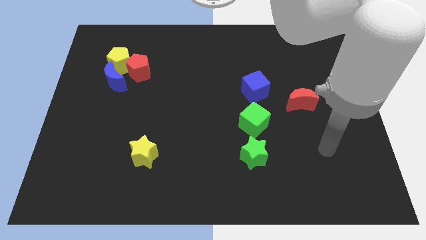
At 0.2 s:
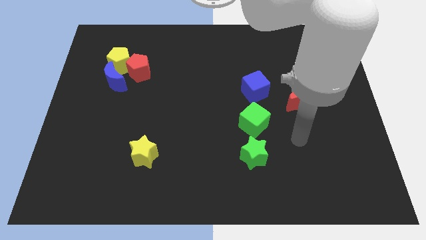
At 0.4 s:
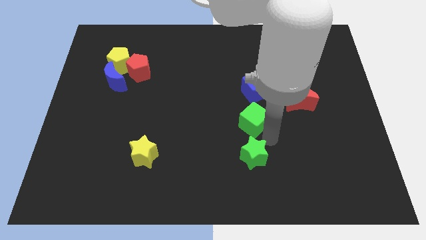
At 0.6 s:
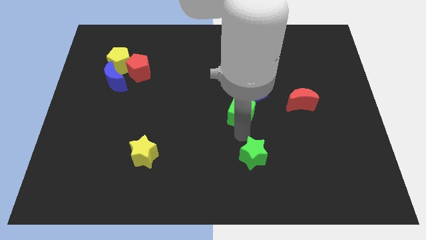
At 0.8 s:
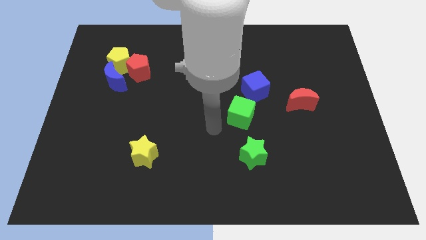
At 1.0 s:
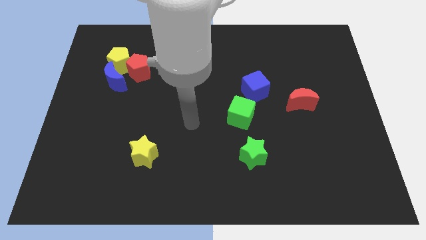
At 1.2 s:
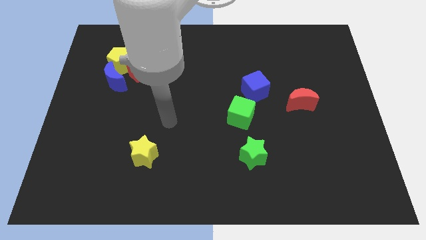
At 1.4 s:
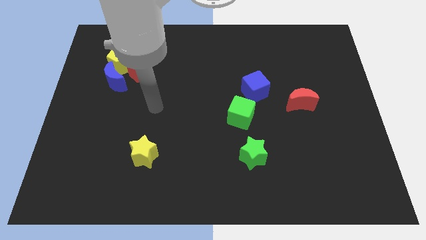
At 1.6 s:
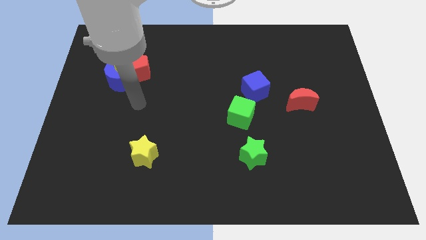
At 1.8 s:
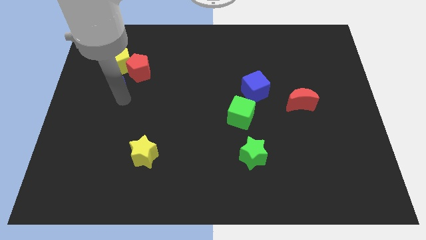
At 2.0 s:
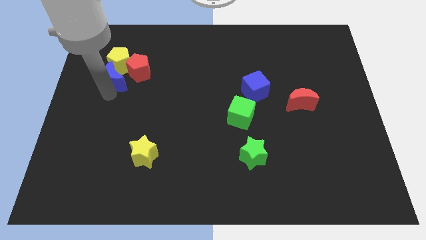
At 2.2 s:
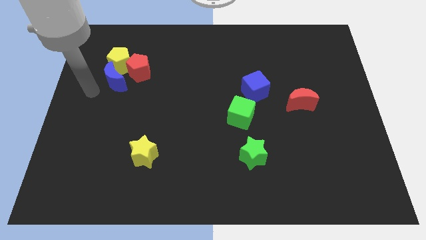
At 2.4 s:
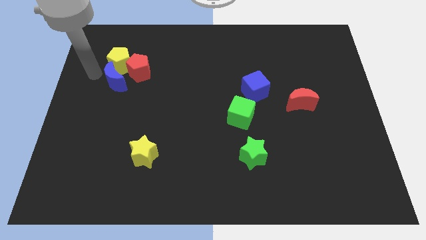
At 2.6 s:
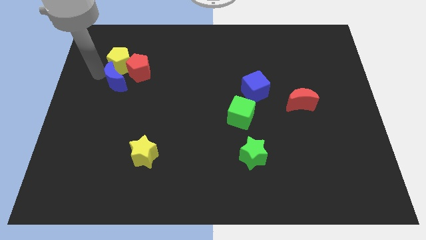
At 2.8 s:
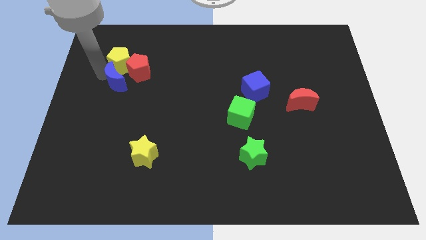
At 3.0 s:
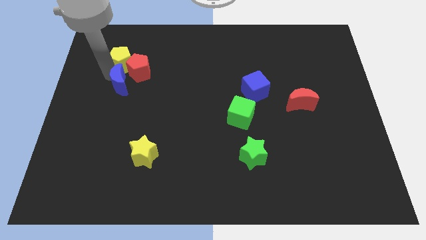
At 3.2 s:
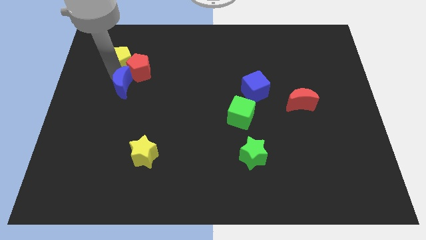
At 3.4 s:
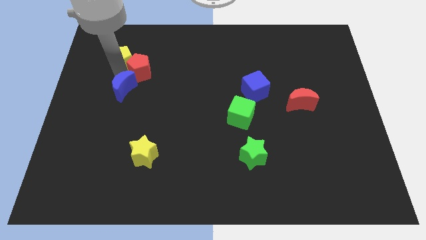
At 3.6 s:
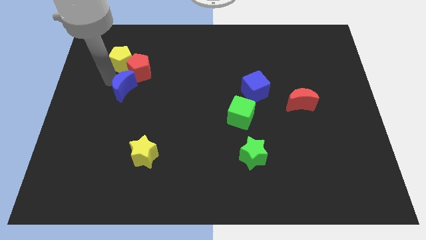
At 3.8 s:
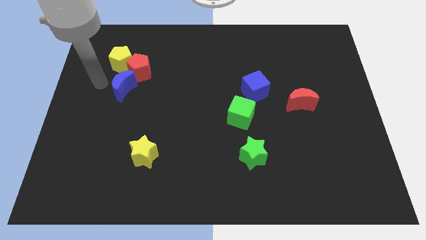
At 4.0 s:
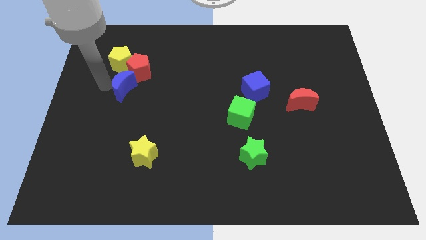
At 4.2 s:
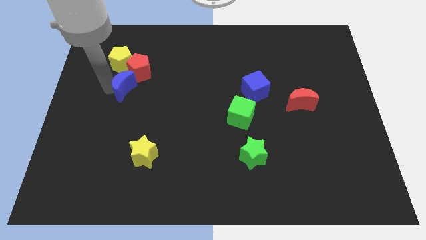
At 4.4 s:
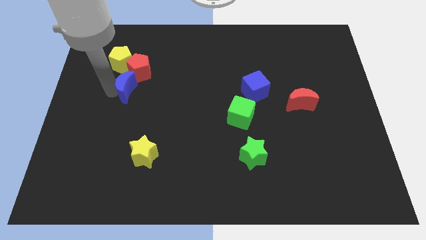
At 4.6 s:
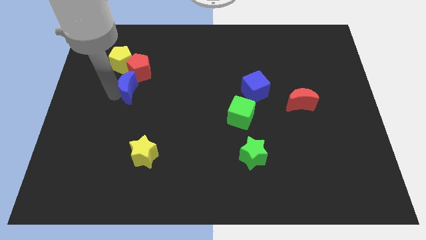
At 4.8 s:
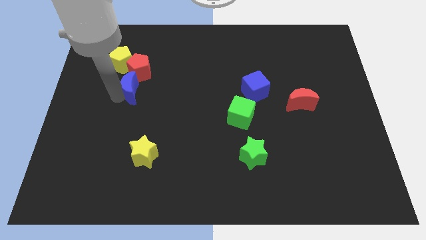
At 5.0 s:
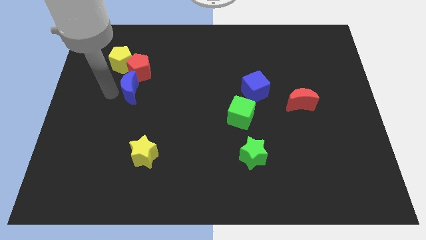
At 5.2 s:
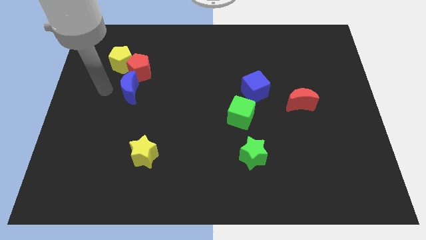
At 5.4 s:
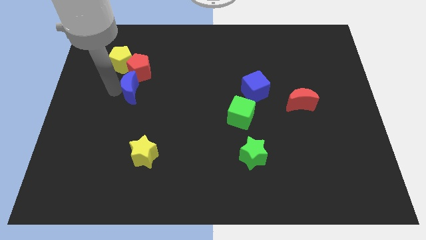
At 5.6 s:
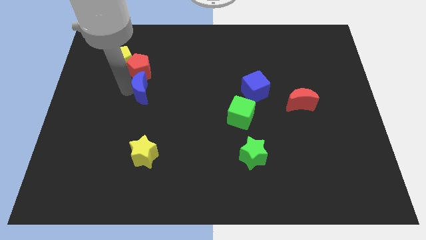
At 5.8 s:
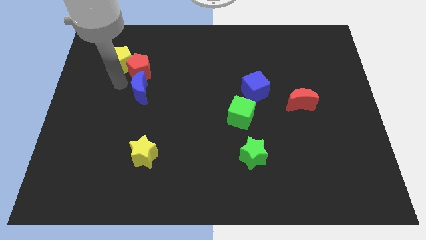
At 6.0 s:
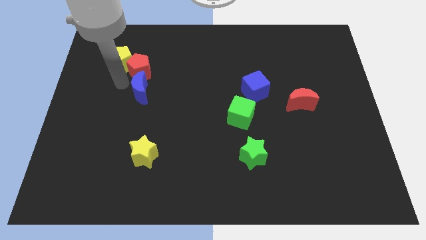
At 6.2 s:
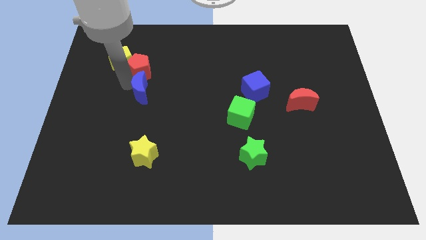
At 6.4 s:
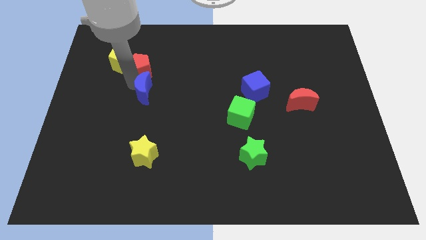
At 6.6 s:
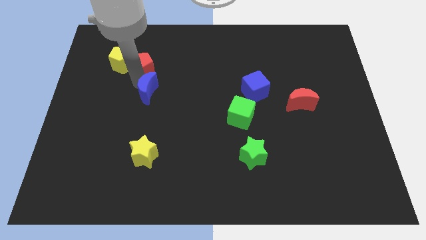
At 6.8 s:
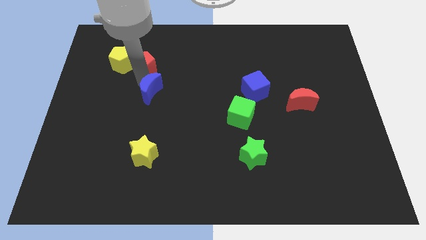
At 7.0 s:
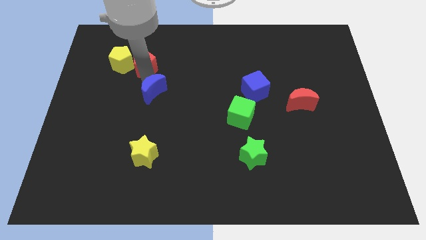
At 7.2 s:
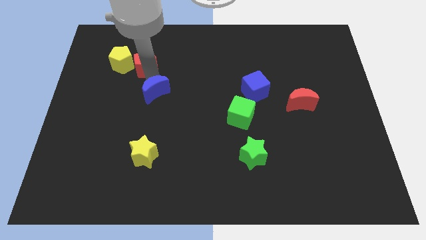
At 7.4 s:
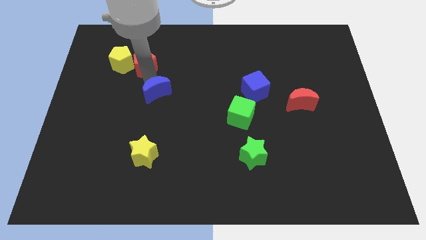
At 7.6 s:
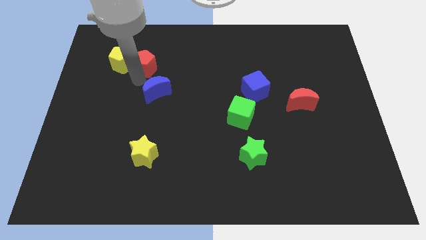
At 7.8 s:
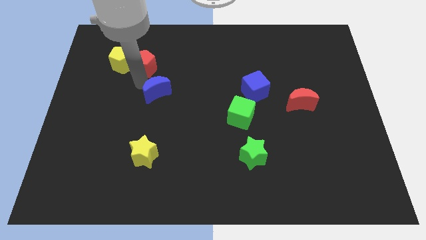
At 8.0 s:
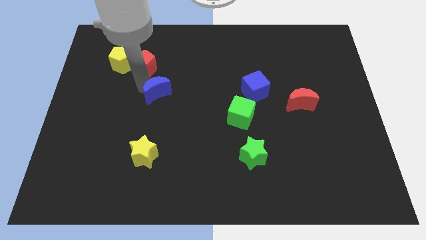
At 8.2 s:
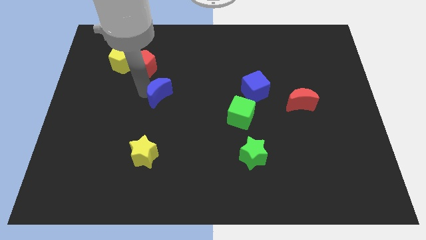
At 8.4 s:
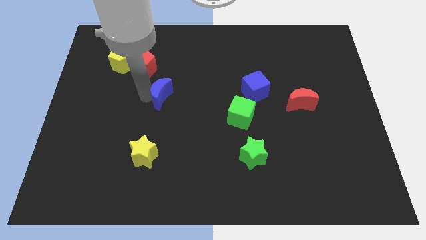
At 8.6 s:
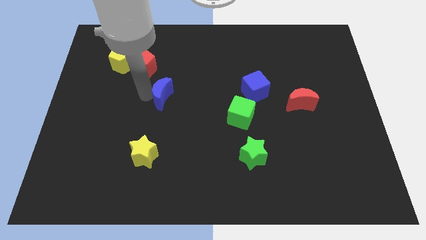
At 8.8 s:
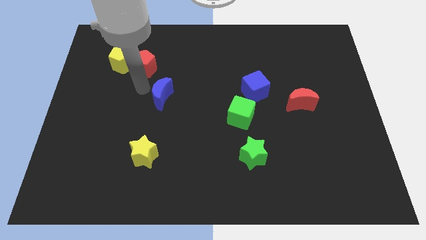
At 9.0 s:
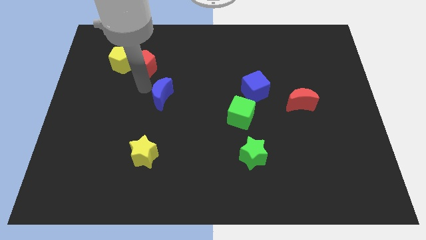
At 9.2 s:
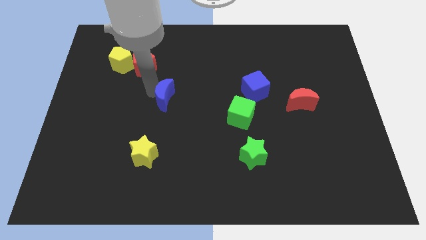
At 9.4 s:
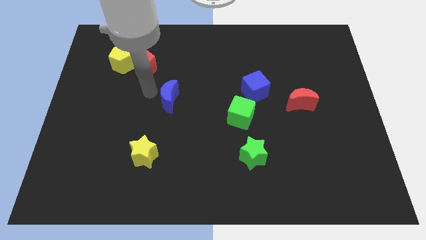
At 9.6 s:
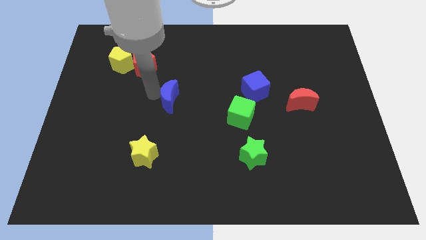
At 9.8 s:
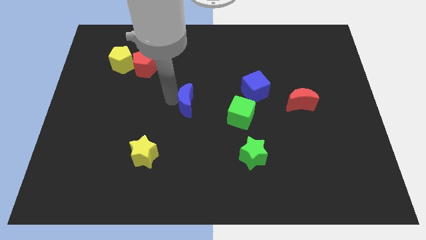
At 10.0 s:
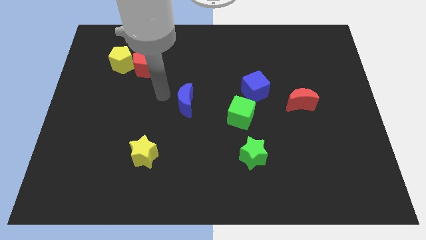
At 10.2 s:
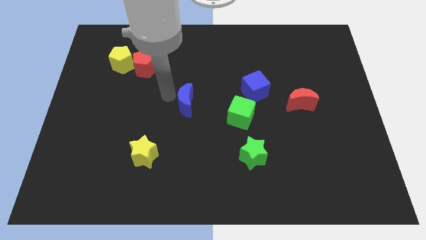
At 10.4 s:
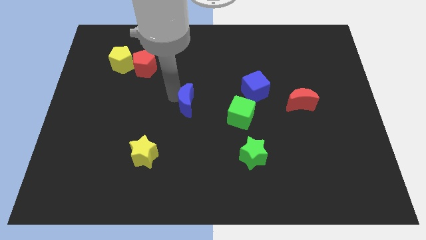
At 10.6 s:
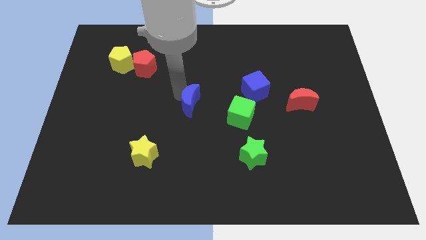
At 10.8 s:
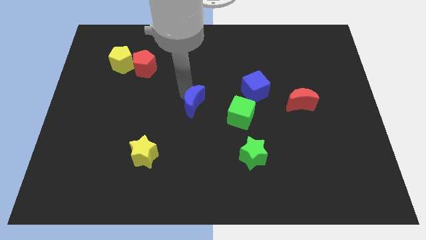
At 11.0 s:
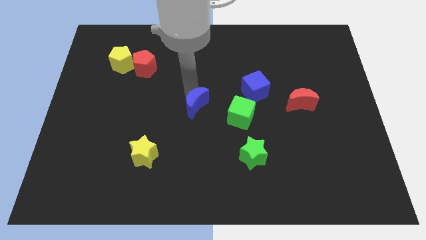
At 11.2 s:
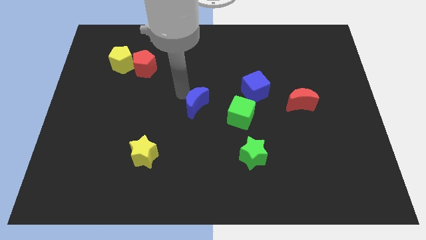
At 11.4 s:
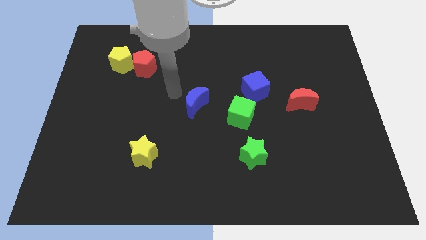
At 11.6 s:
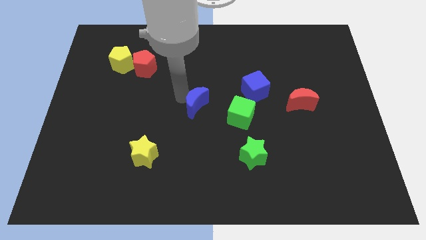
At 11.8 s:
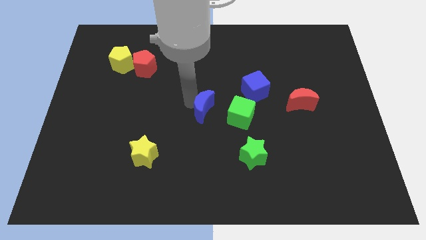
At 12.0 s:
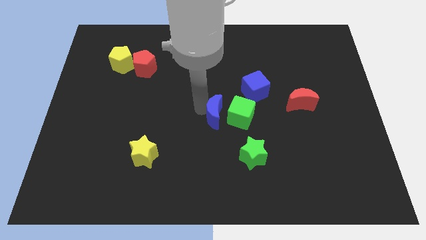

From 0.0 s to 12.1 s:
push the blue moon next to the green cube

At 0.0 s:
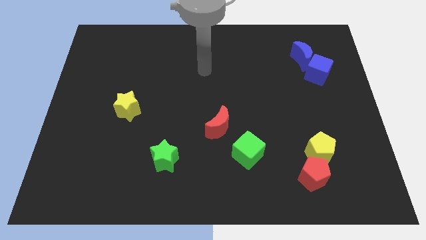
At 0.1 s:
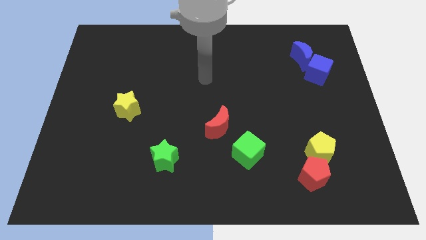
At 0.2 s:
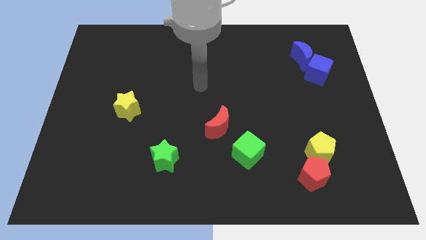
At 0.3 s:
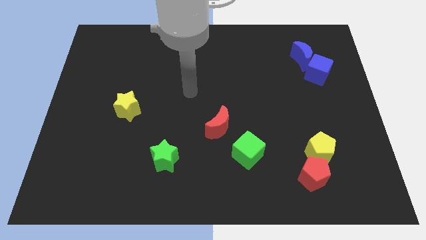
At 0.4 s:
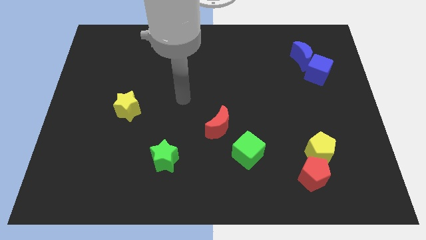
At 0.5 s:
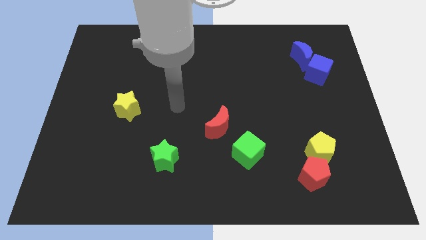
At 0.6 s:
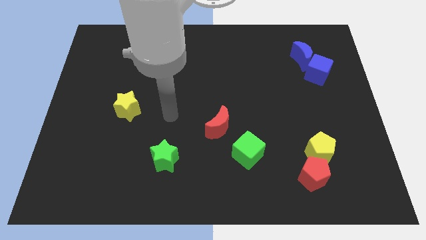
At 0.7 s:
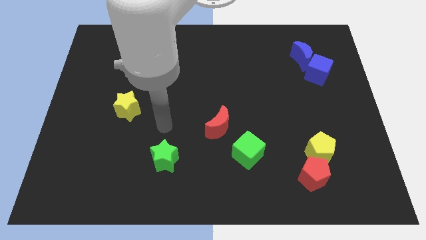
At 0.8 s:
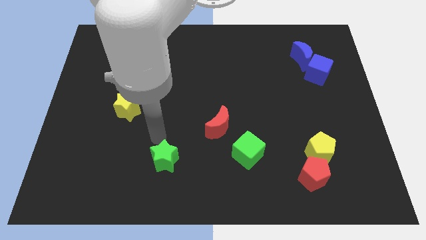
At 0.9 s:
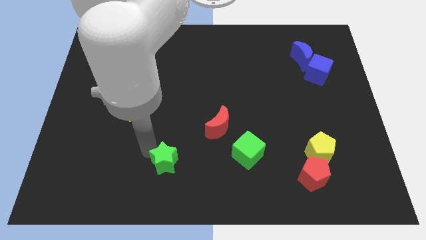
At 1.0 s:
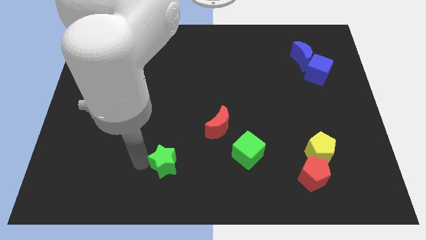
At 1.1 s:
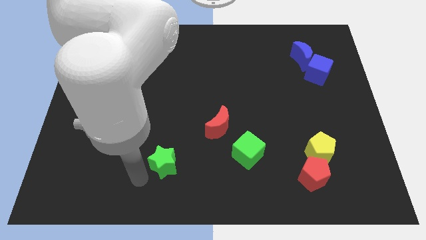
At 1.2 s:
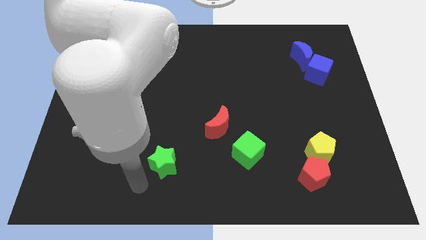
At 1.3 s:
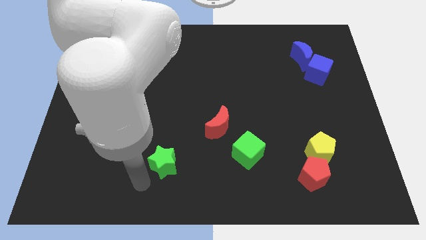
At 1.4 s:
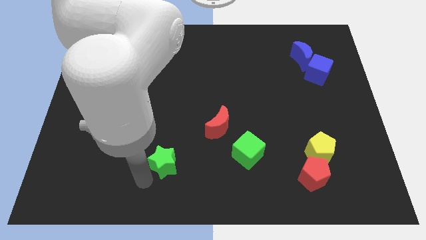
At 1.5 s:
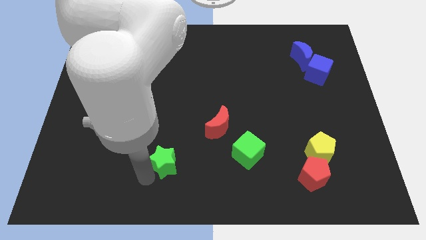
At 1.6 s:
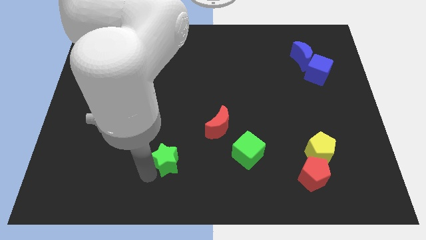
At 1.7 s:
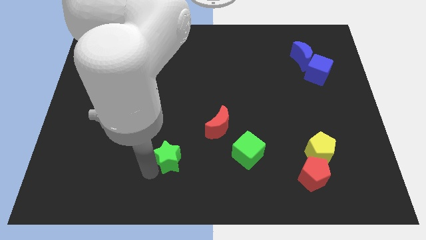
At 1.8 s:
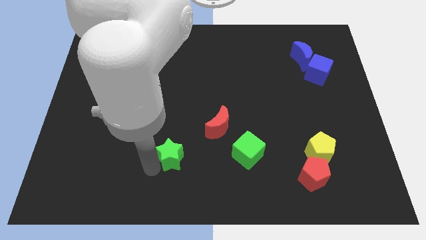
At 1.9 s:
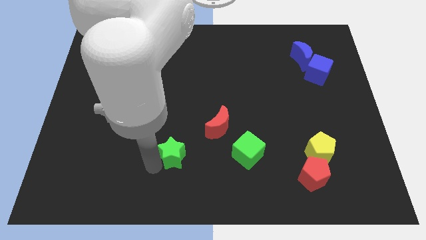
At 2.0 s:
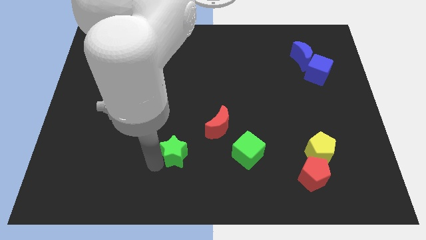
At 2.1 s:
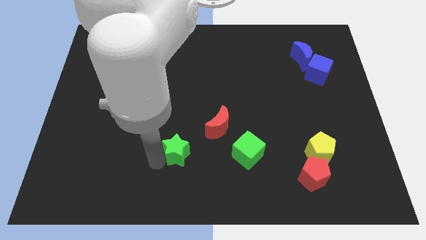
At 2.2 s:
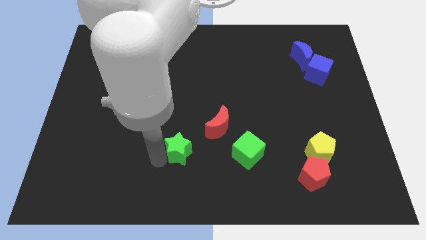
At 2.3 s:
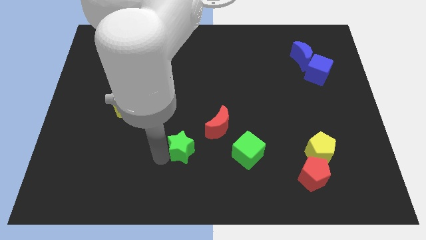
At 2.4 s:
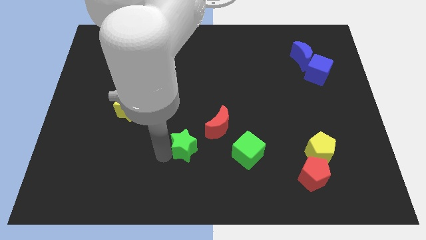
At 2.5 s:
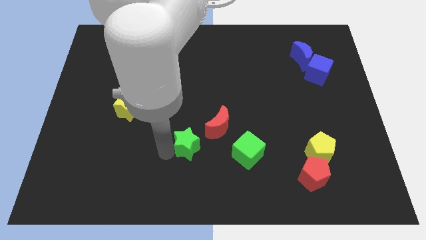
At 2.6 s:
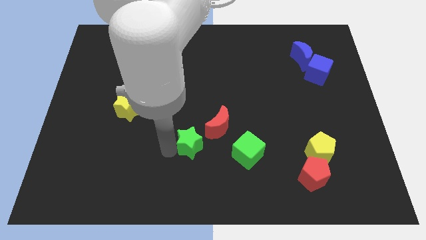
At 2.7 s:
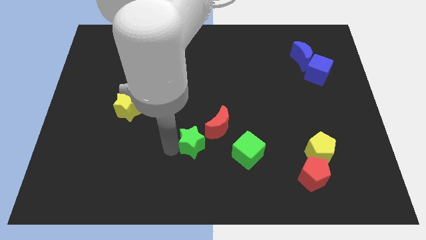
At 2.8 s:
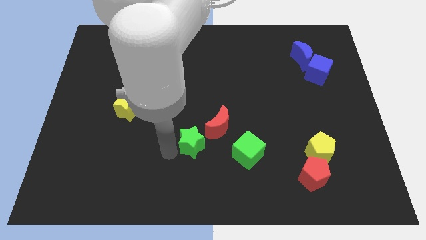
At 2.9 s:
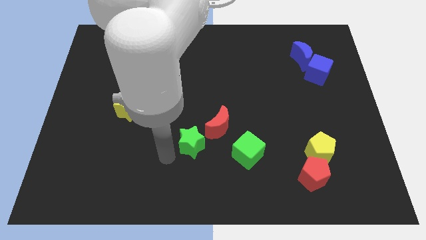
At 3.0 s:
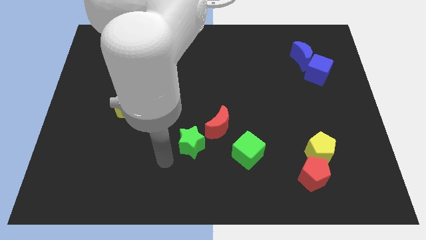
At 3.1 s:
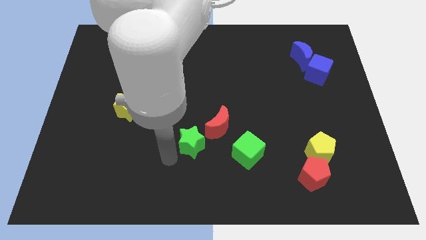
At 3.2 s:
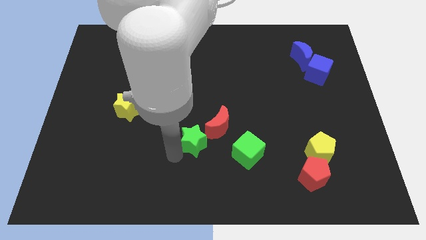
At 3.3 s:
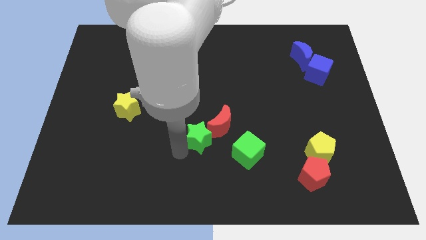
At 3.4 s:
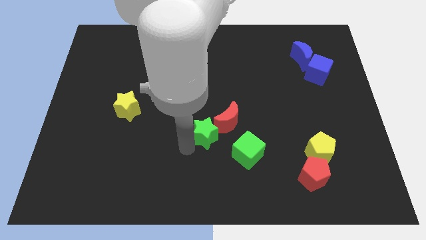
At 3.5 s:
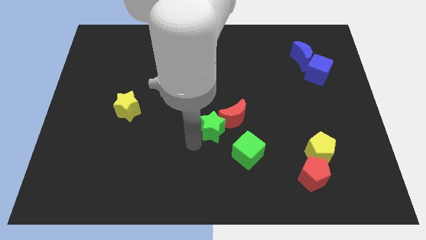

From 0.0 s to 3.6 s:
slide the green star to the red moon
